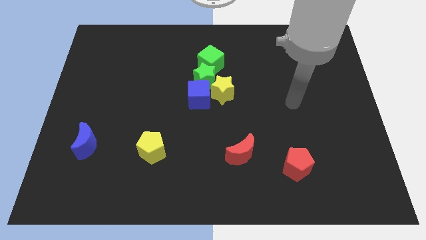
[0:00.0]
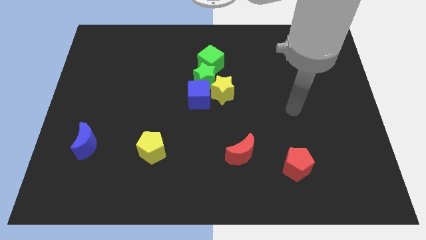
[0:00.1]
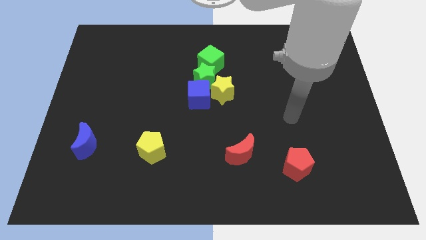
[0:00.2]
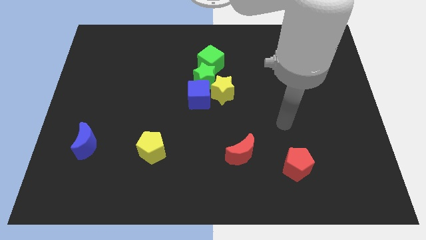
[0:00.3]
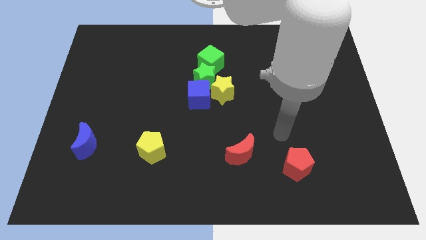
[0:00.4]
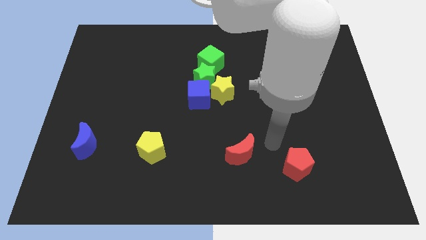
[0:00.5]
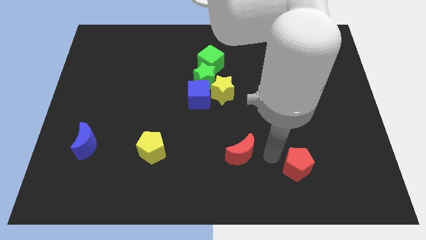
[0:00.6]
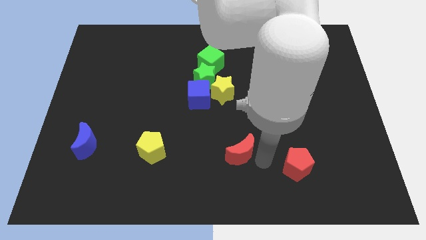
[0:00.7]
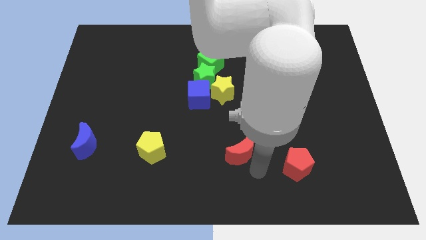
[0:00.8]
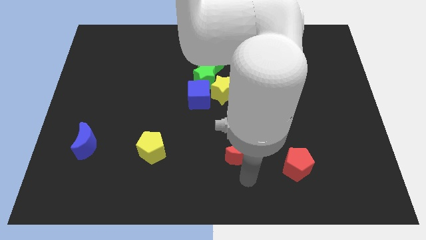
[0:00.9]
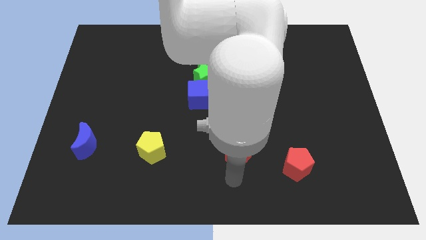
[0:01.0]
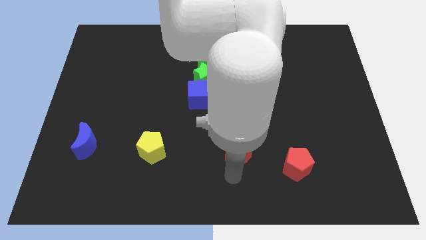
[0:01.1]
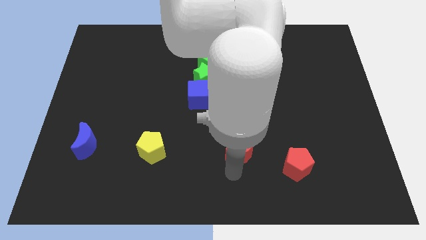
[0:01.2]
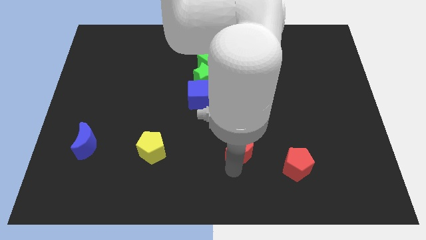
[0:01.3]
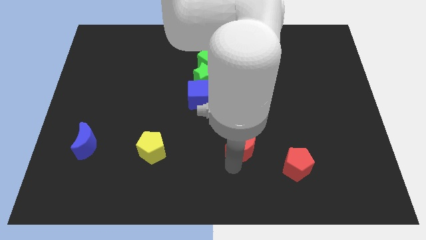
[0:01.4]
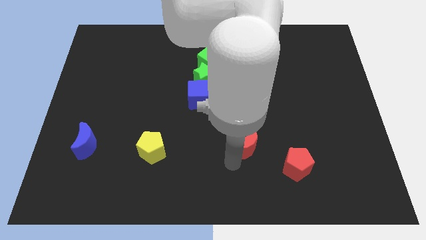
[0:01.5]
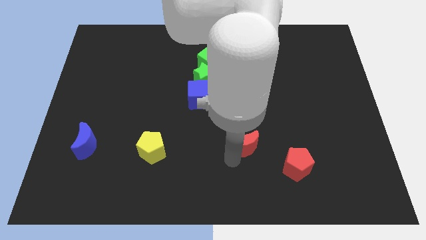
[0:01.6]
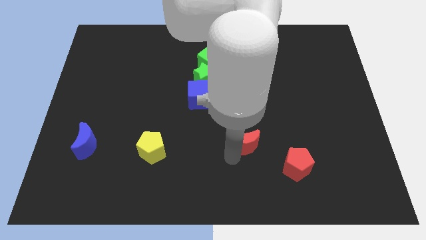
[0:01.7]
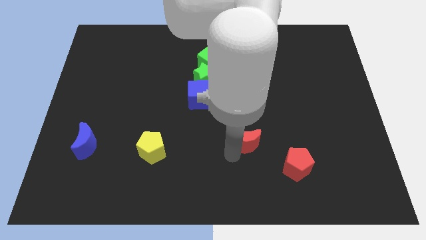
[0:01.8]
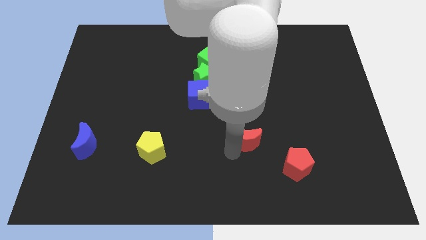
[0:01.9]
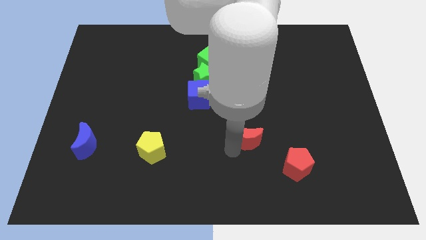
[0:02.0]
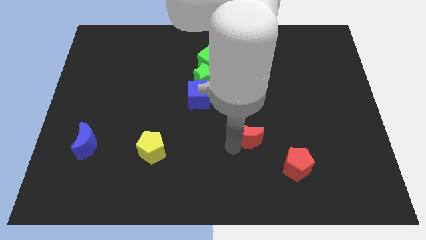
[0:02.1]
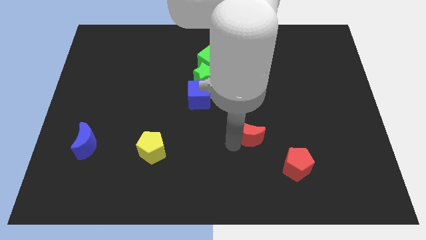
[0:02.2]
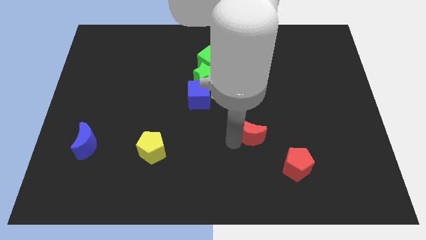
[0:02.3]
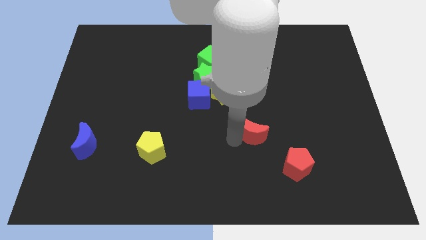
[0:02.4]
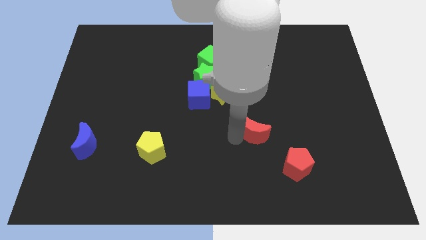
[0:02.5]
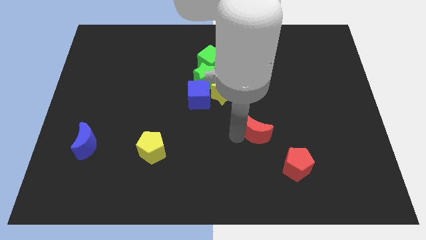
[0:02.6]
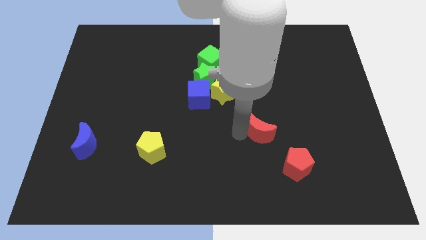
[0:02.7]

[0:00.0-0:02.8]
slide the red moon slightly upwards and then right

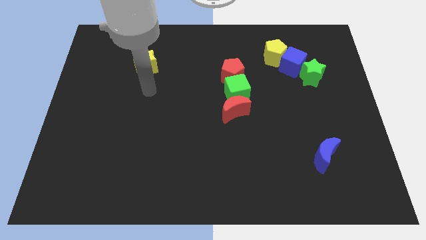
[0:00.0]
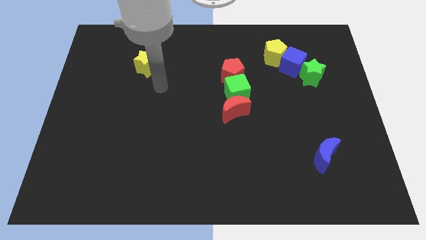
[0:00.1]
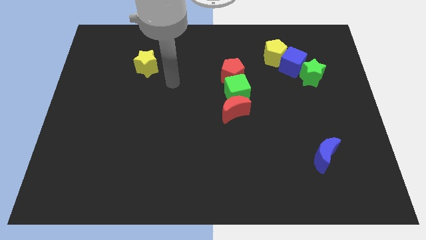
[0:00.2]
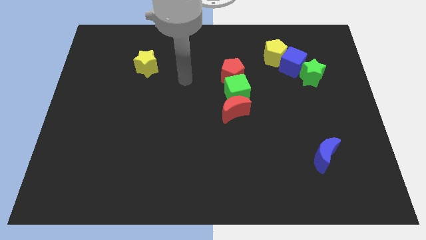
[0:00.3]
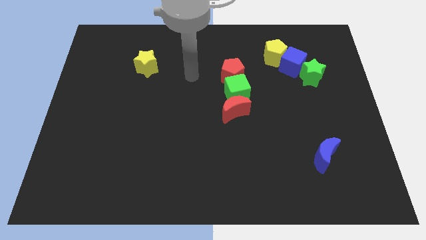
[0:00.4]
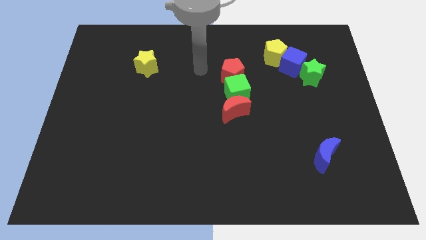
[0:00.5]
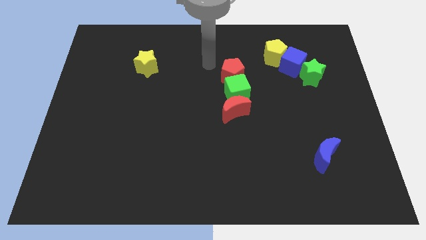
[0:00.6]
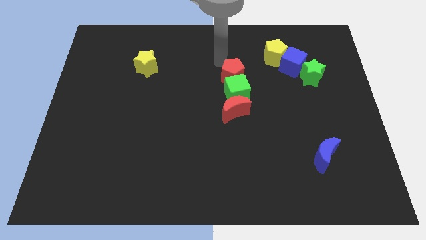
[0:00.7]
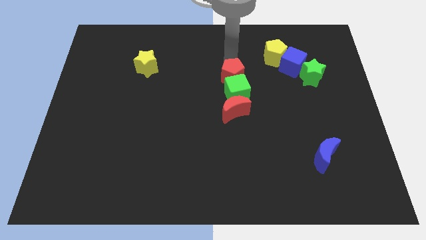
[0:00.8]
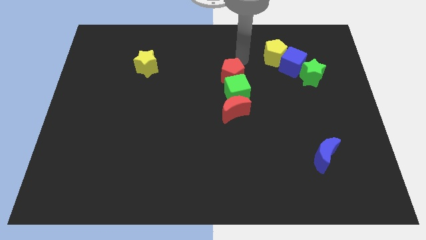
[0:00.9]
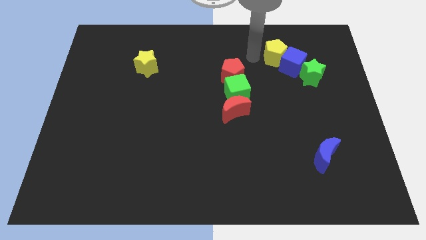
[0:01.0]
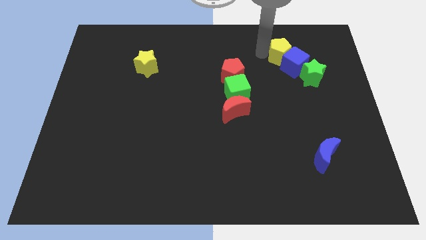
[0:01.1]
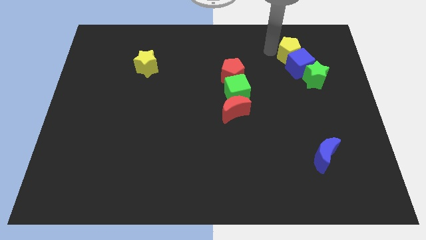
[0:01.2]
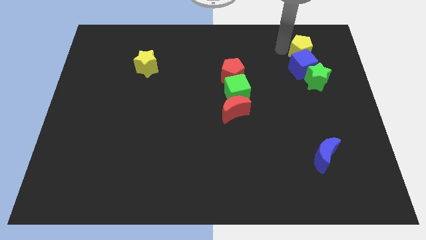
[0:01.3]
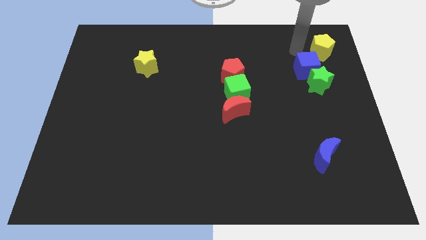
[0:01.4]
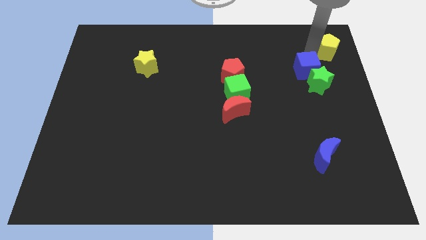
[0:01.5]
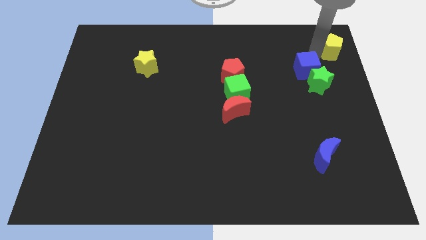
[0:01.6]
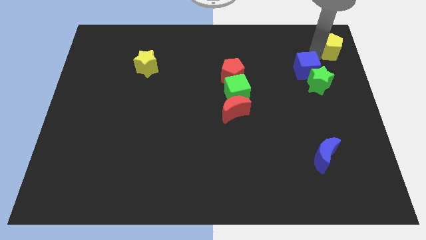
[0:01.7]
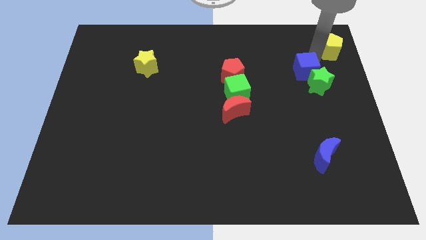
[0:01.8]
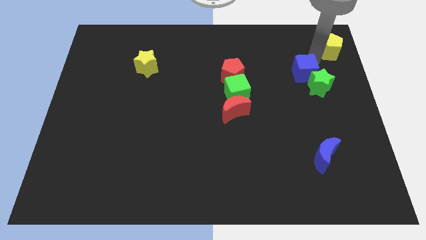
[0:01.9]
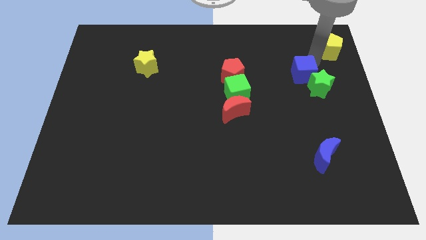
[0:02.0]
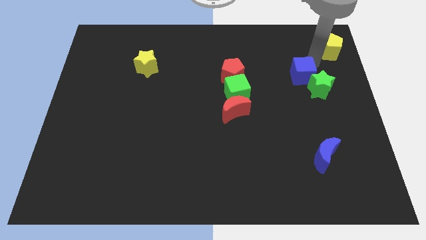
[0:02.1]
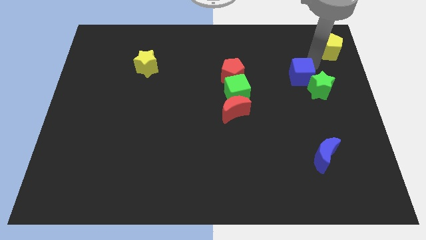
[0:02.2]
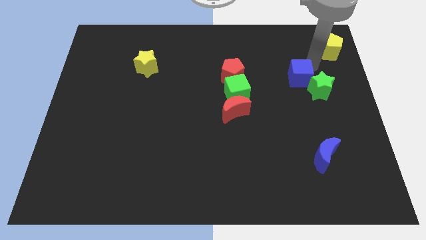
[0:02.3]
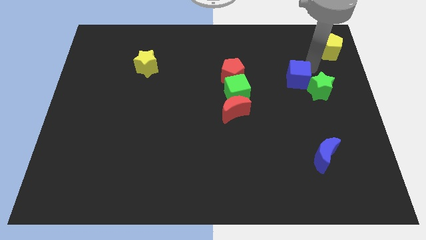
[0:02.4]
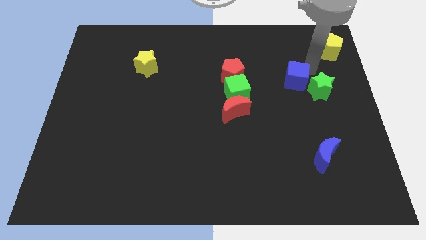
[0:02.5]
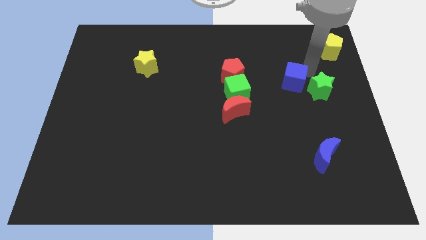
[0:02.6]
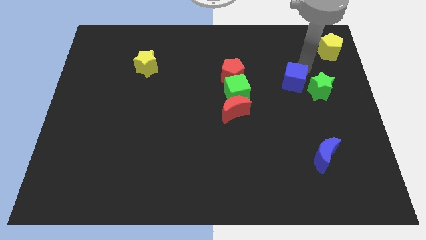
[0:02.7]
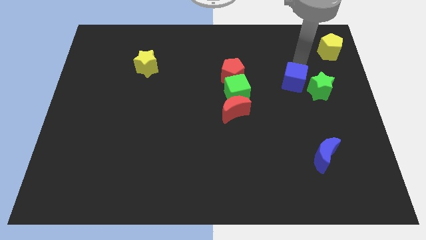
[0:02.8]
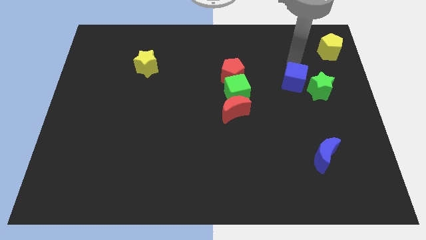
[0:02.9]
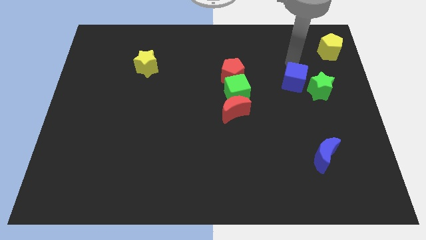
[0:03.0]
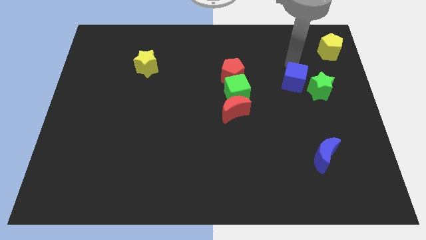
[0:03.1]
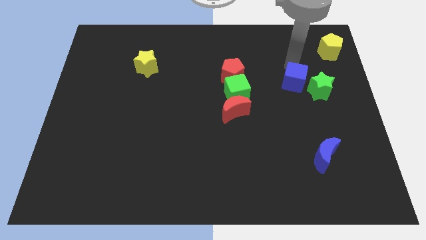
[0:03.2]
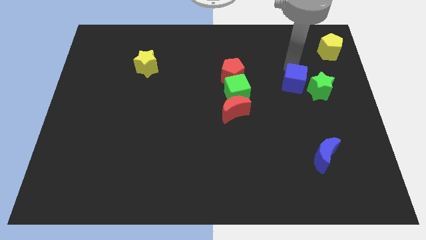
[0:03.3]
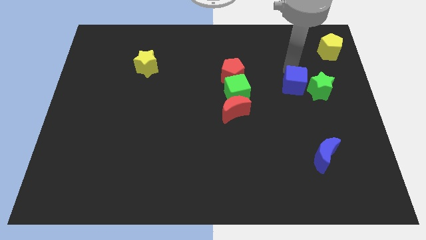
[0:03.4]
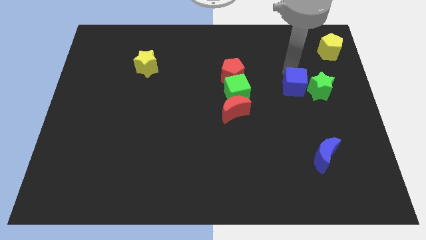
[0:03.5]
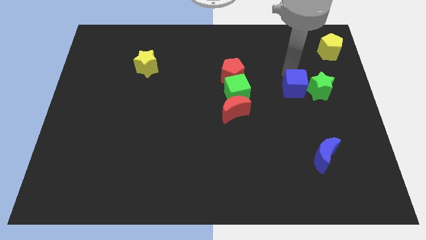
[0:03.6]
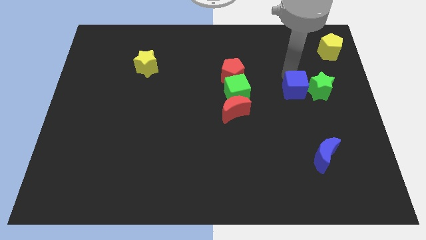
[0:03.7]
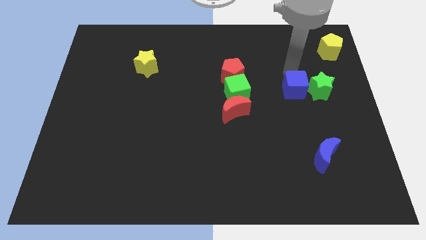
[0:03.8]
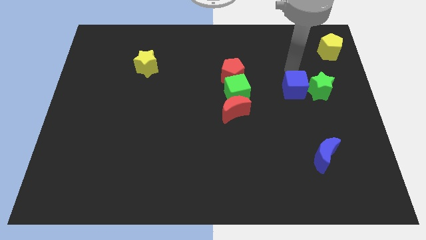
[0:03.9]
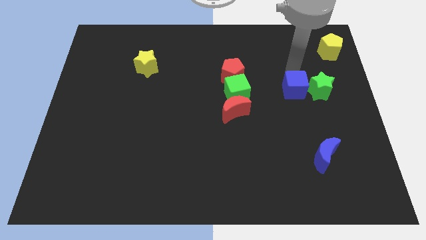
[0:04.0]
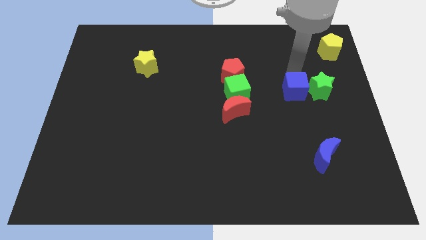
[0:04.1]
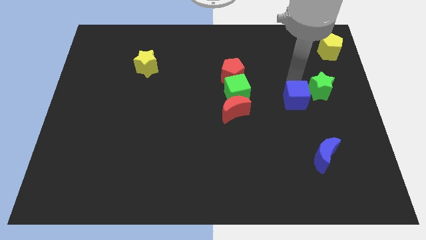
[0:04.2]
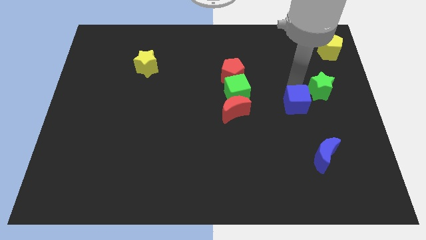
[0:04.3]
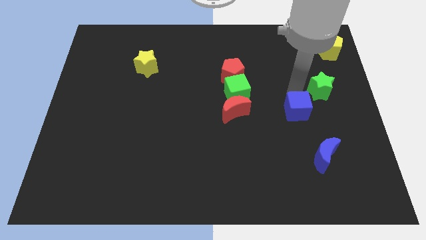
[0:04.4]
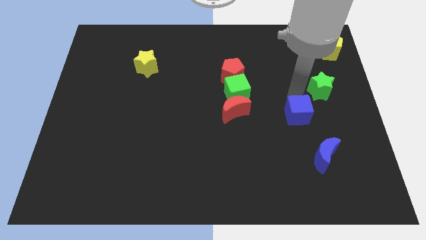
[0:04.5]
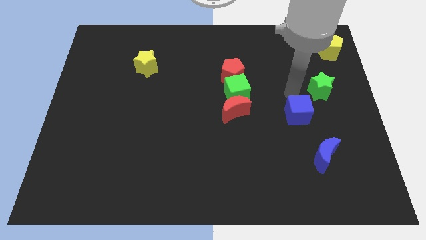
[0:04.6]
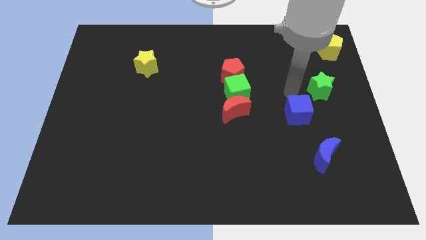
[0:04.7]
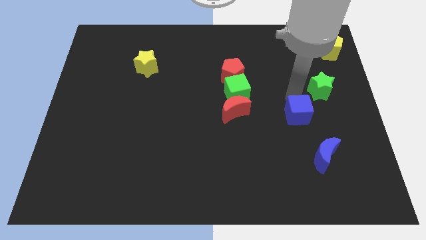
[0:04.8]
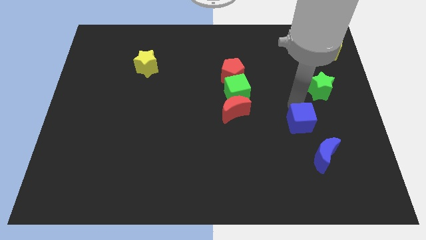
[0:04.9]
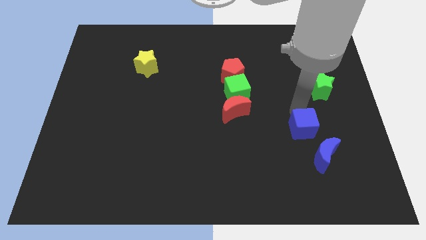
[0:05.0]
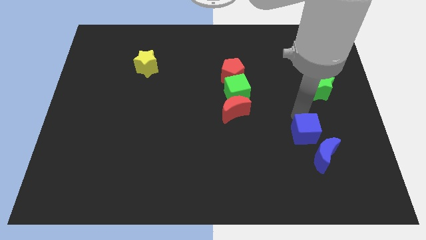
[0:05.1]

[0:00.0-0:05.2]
move the blue cube downwards

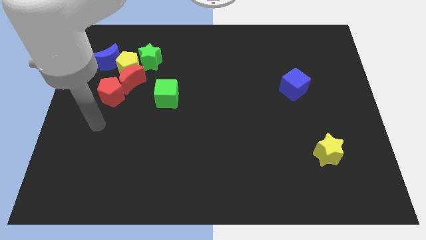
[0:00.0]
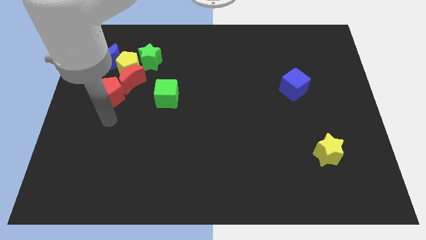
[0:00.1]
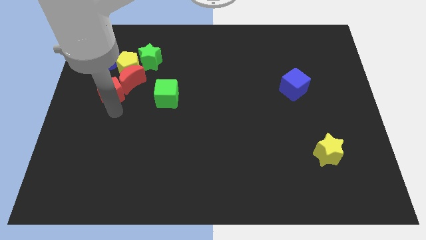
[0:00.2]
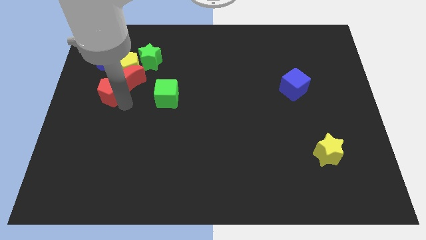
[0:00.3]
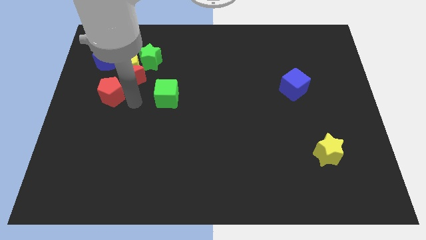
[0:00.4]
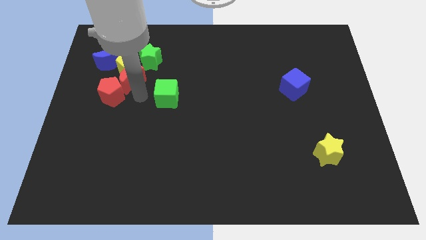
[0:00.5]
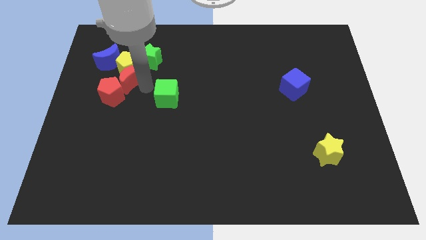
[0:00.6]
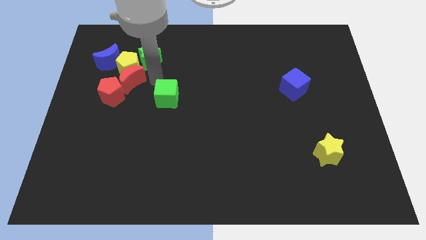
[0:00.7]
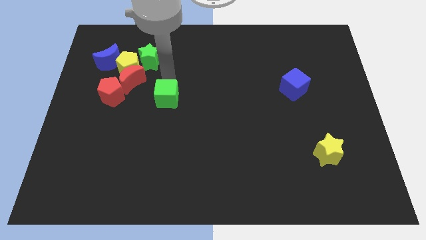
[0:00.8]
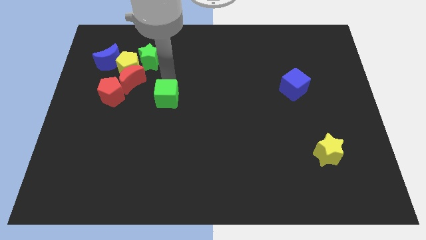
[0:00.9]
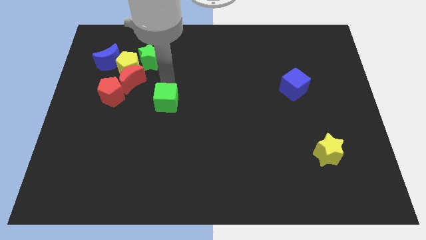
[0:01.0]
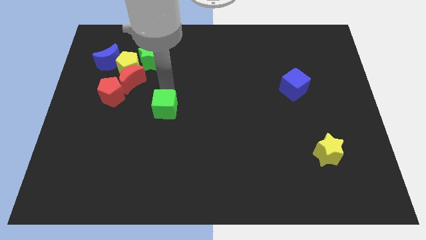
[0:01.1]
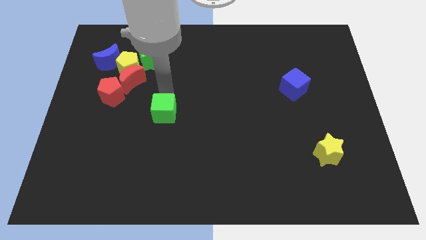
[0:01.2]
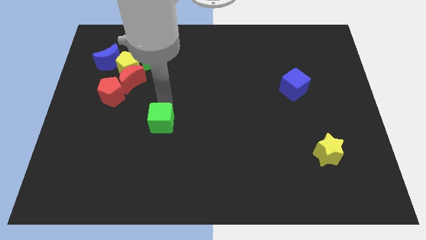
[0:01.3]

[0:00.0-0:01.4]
move the green cube down a little
